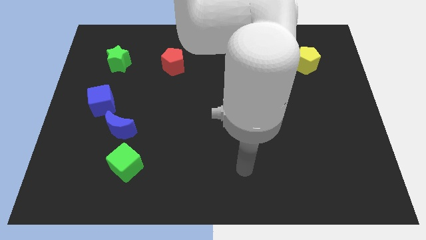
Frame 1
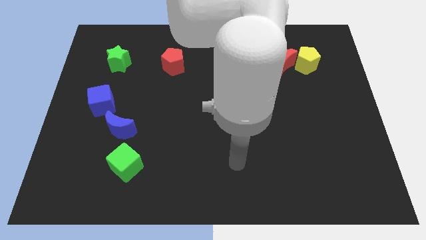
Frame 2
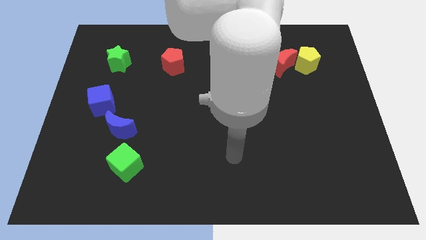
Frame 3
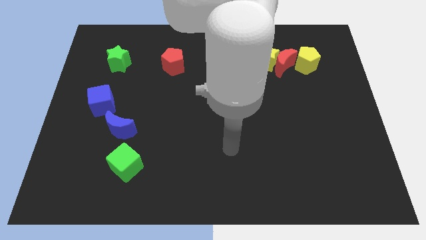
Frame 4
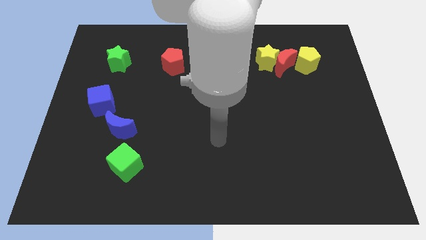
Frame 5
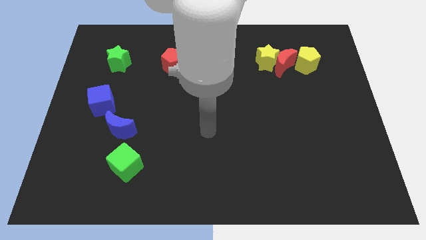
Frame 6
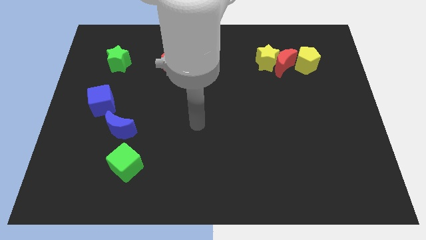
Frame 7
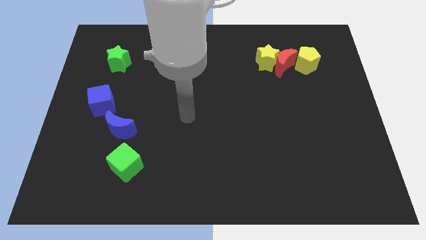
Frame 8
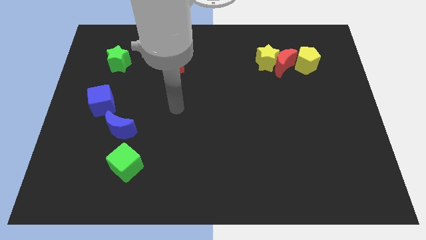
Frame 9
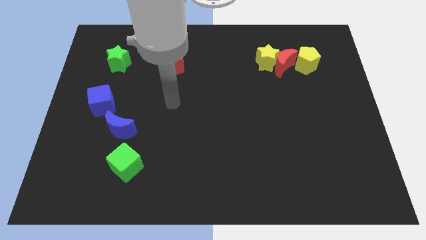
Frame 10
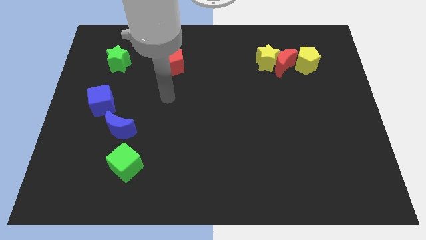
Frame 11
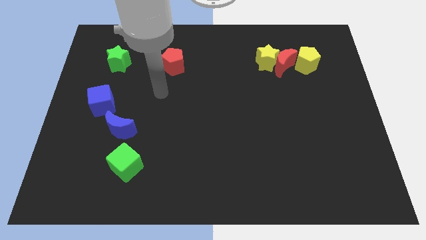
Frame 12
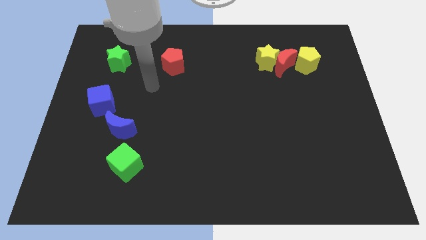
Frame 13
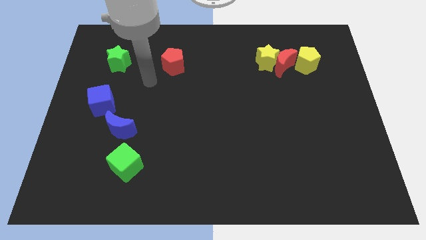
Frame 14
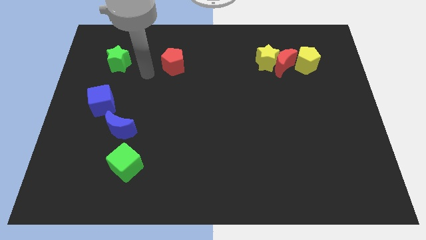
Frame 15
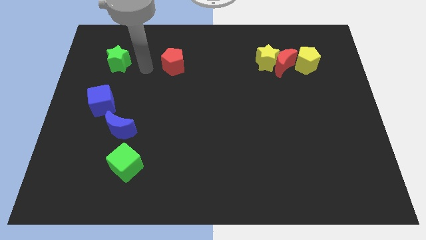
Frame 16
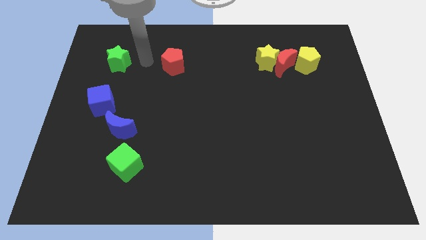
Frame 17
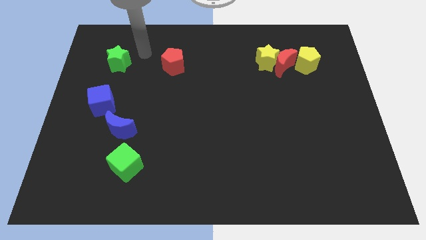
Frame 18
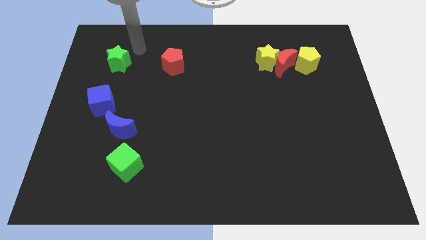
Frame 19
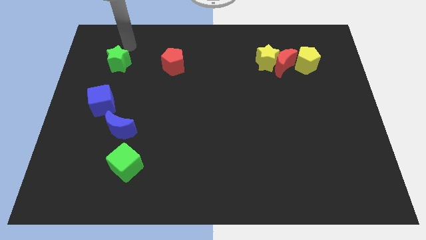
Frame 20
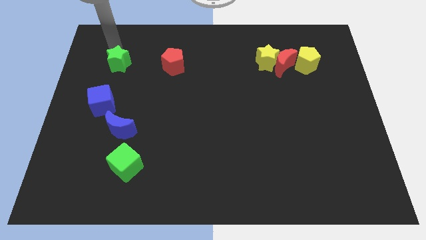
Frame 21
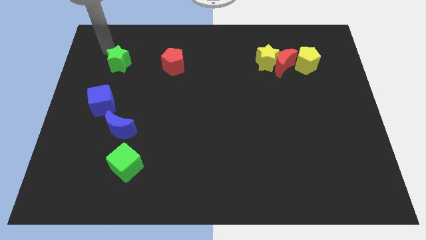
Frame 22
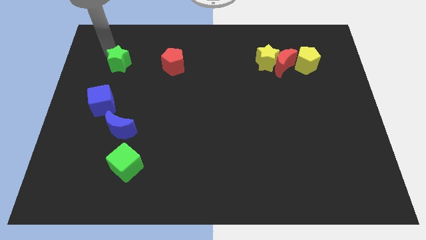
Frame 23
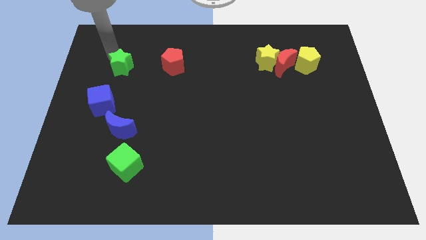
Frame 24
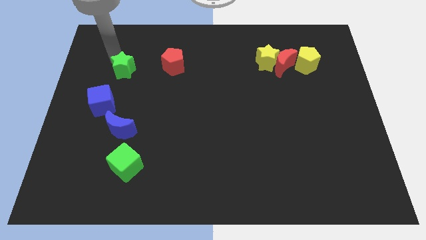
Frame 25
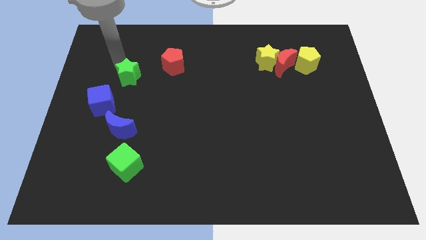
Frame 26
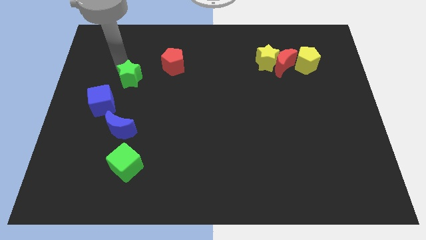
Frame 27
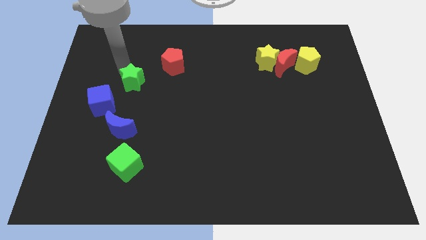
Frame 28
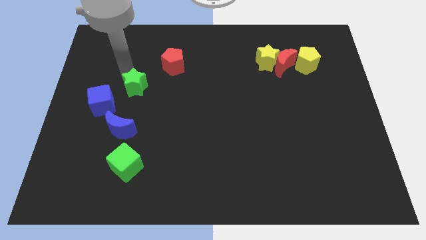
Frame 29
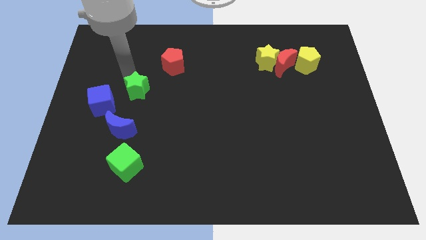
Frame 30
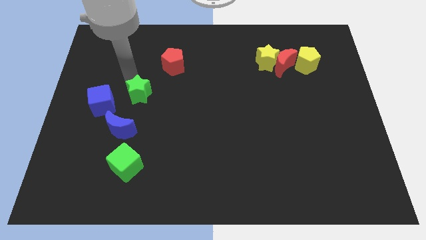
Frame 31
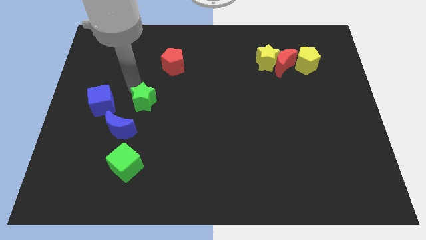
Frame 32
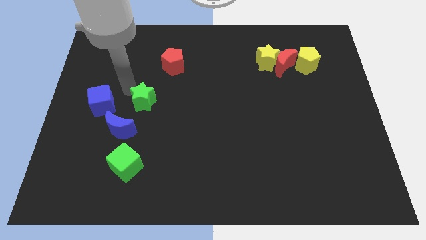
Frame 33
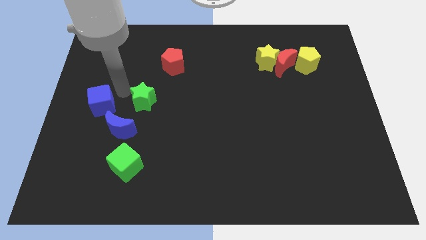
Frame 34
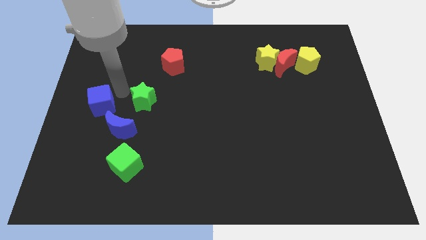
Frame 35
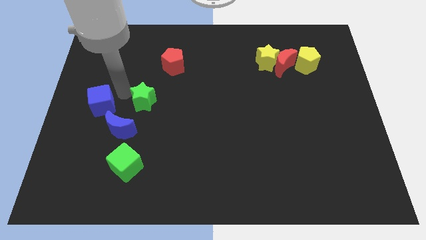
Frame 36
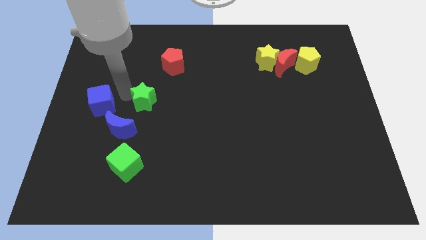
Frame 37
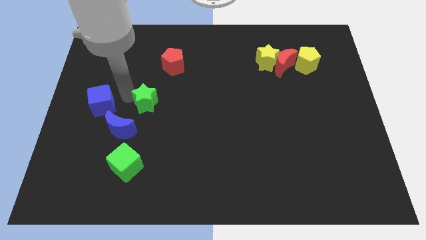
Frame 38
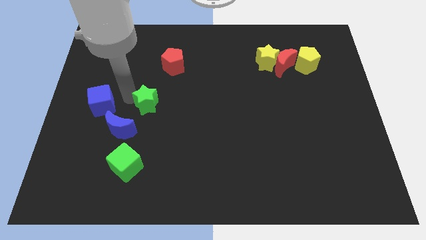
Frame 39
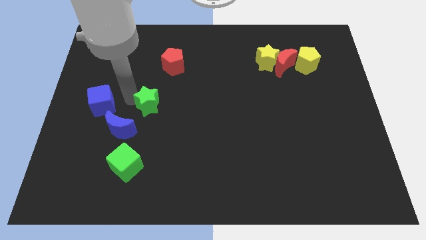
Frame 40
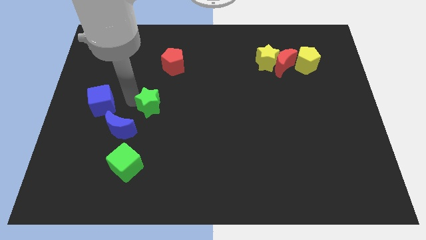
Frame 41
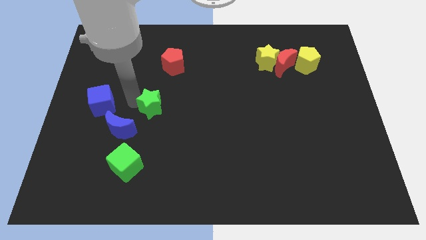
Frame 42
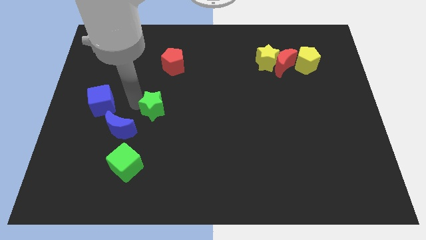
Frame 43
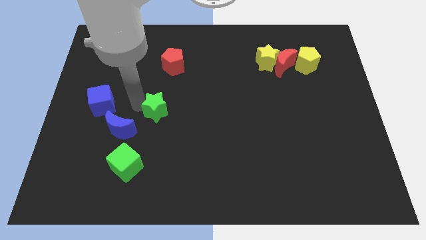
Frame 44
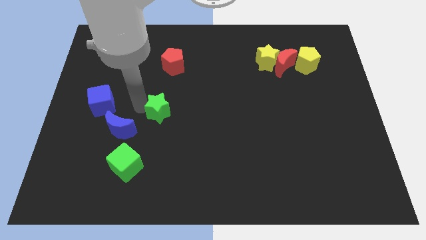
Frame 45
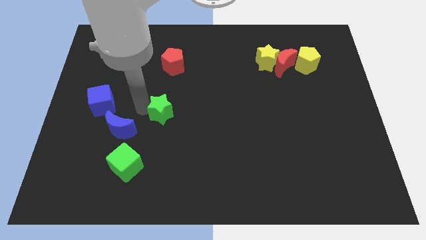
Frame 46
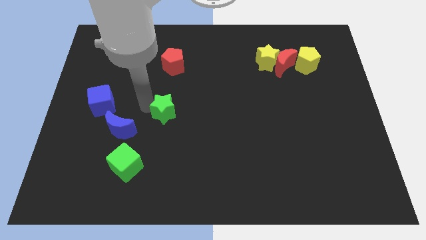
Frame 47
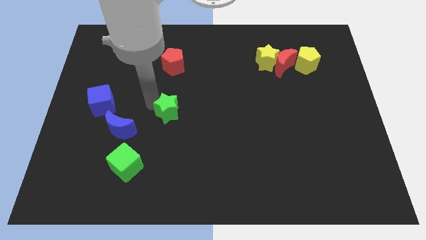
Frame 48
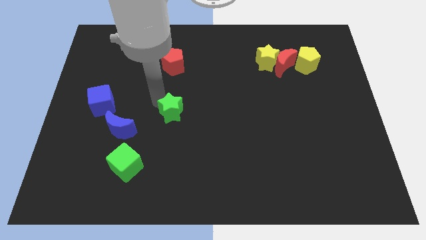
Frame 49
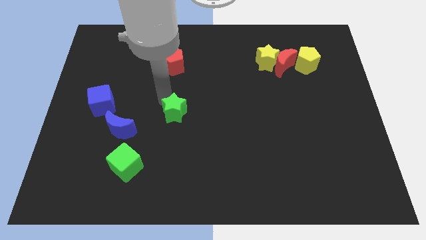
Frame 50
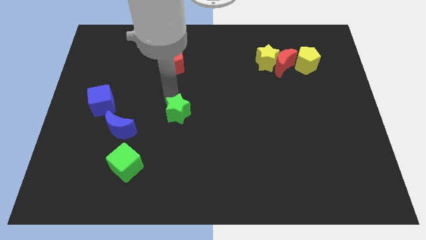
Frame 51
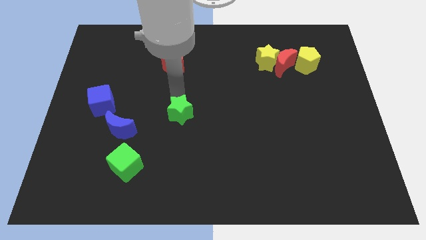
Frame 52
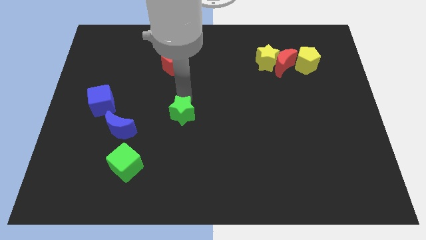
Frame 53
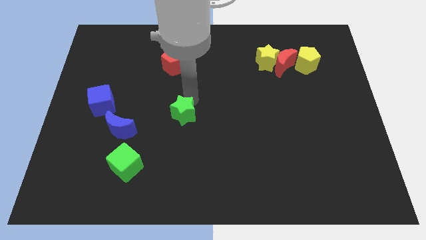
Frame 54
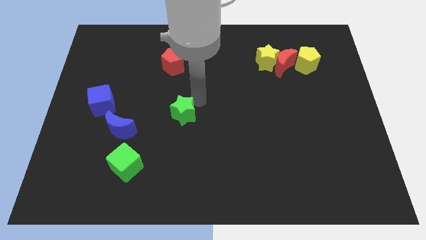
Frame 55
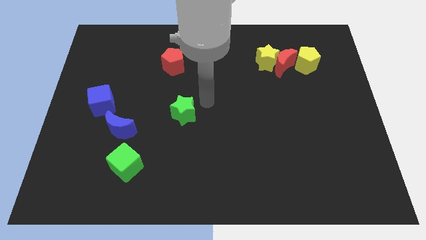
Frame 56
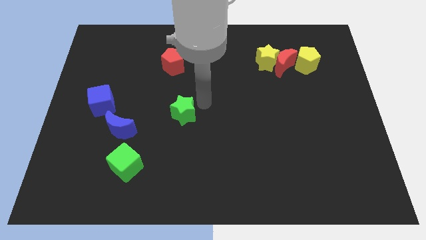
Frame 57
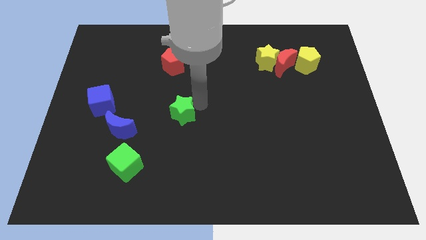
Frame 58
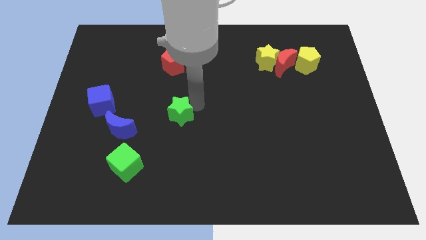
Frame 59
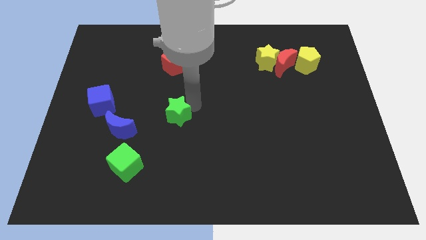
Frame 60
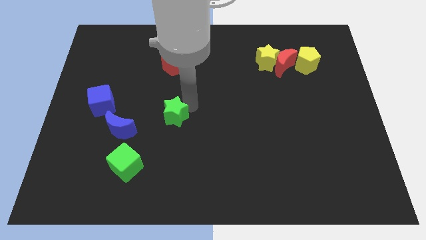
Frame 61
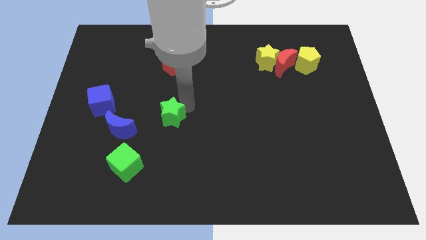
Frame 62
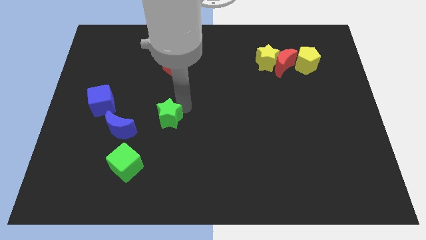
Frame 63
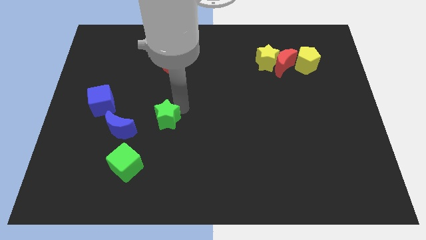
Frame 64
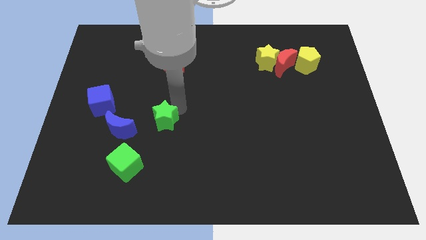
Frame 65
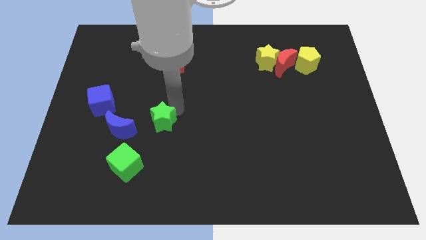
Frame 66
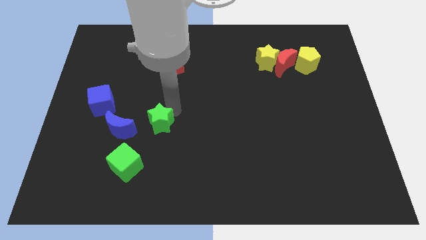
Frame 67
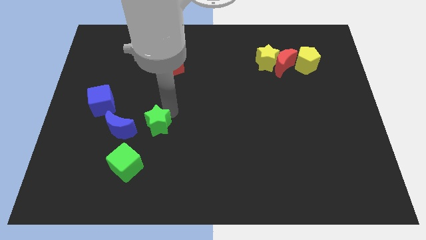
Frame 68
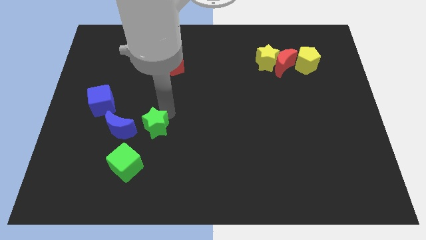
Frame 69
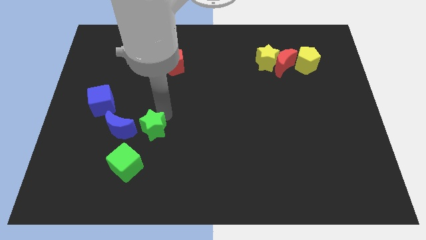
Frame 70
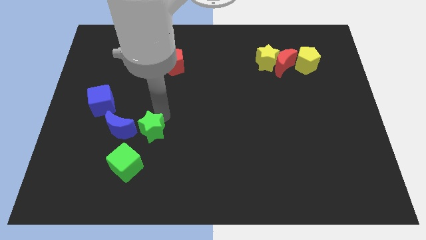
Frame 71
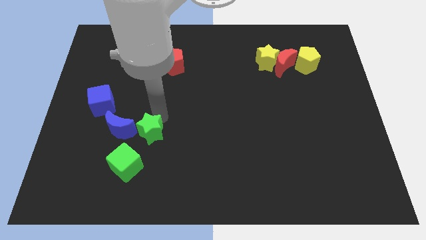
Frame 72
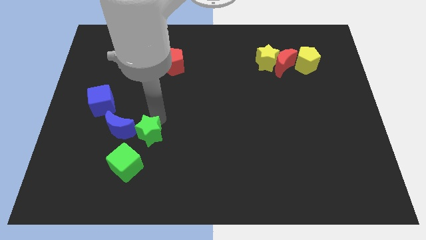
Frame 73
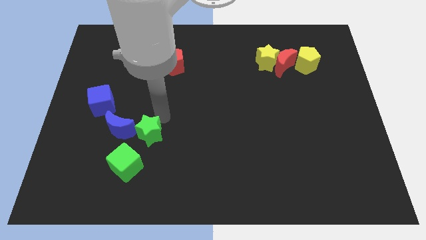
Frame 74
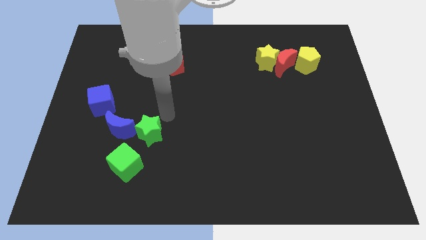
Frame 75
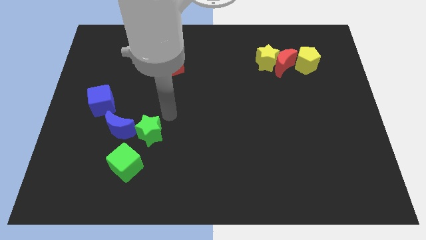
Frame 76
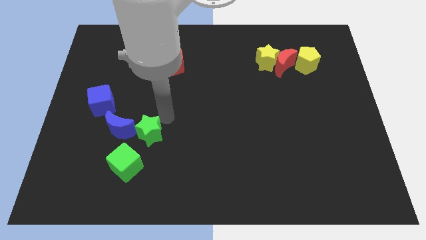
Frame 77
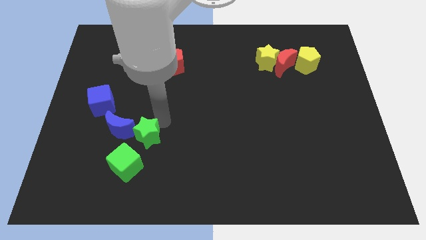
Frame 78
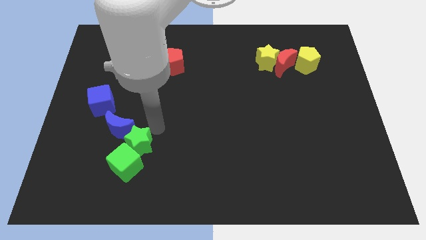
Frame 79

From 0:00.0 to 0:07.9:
slide the green star close to the green cube
